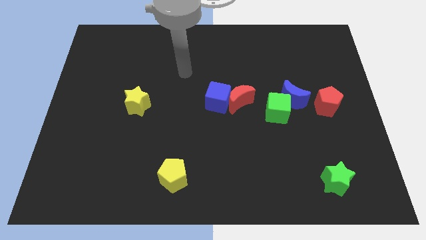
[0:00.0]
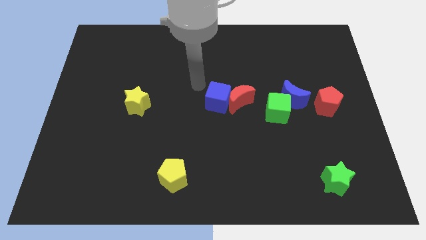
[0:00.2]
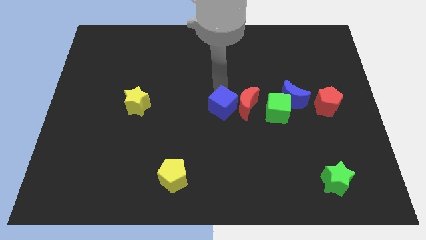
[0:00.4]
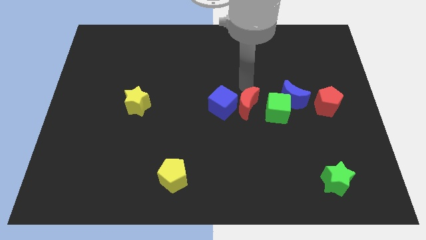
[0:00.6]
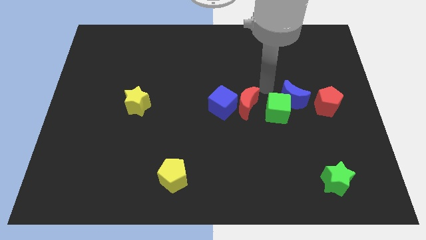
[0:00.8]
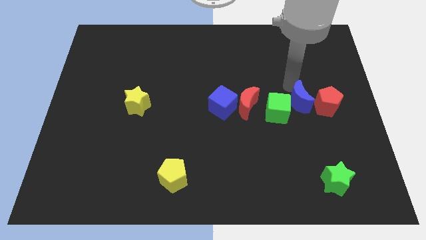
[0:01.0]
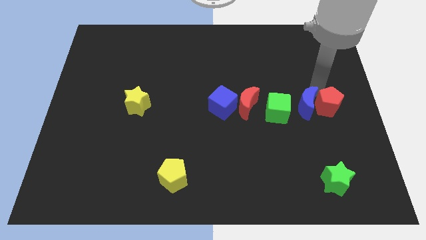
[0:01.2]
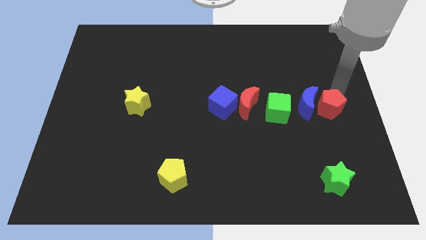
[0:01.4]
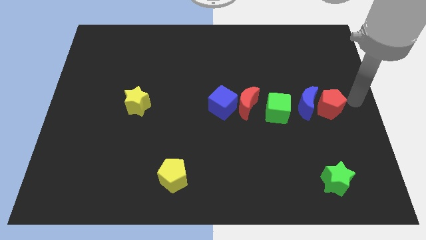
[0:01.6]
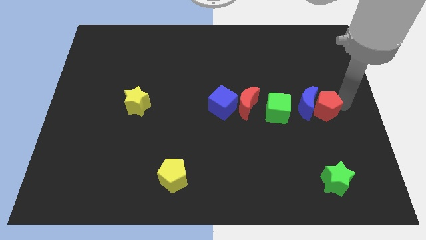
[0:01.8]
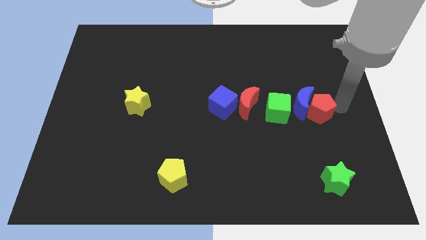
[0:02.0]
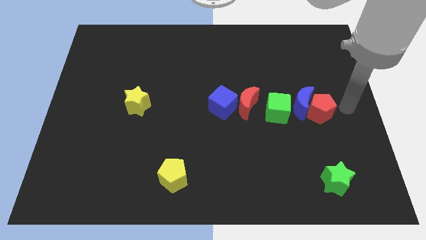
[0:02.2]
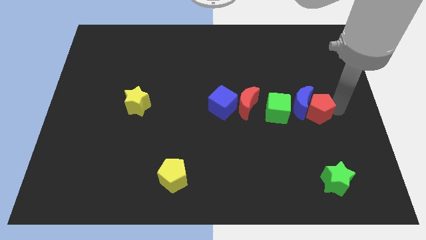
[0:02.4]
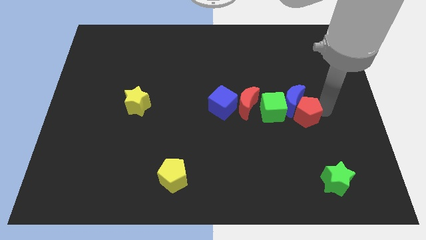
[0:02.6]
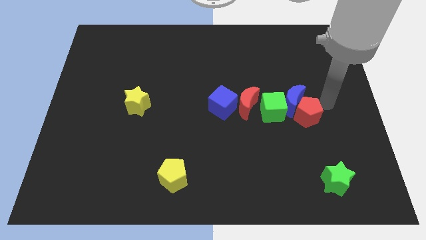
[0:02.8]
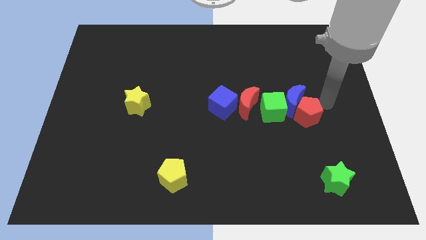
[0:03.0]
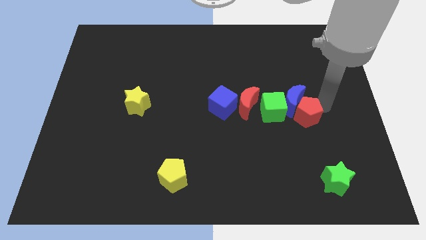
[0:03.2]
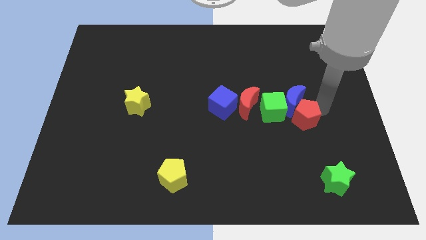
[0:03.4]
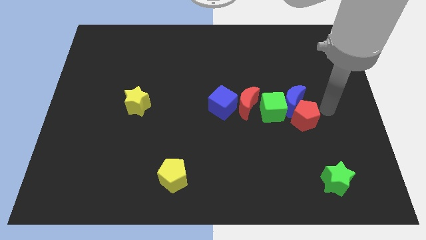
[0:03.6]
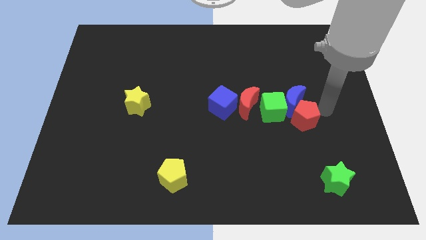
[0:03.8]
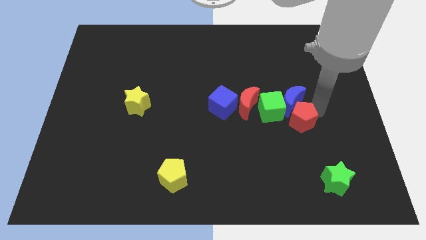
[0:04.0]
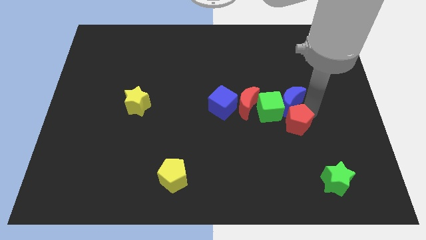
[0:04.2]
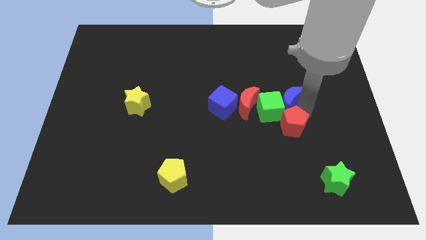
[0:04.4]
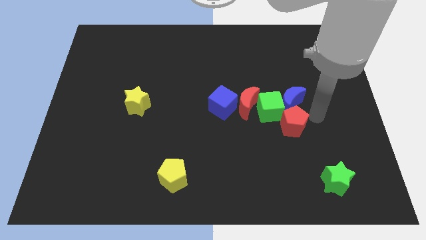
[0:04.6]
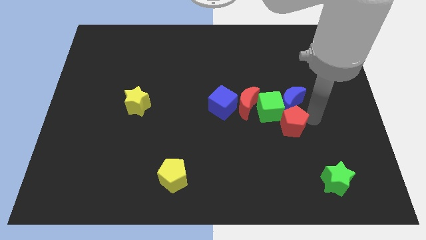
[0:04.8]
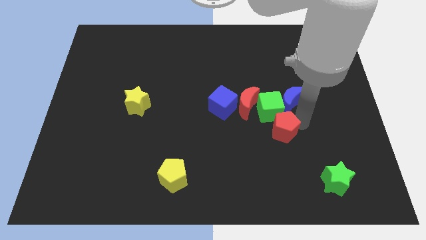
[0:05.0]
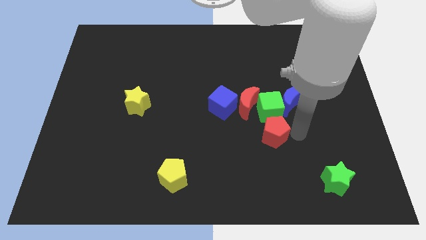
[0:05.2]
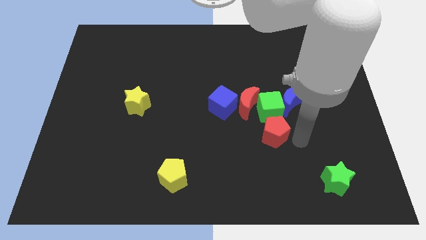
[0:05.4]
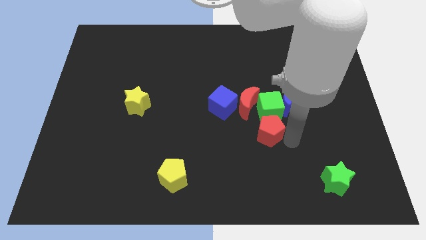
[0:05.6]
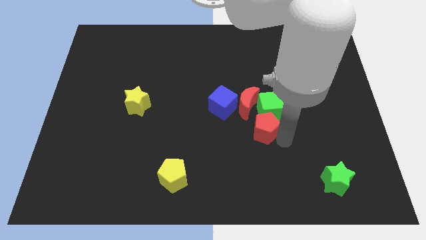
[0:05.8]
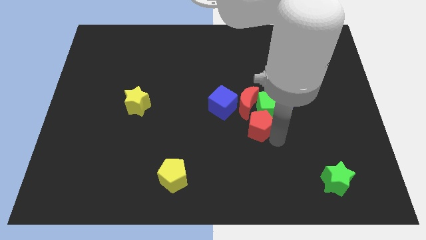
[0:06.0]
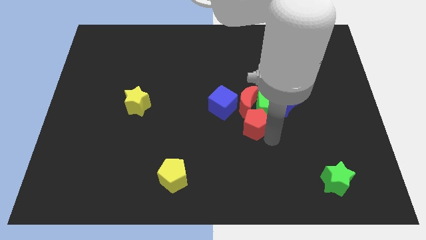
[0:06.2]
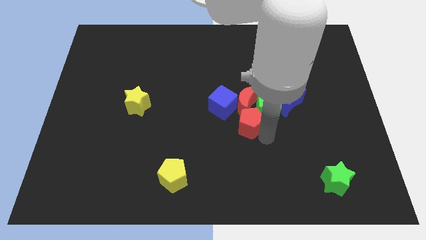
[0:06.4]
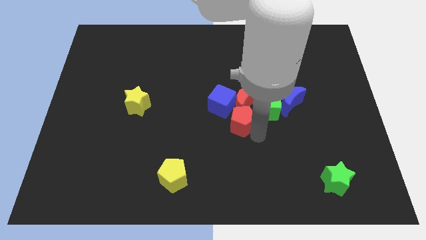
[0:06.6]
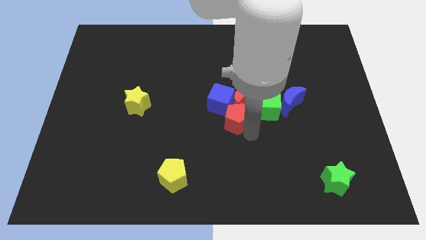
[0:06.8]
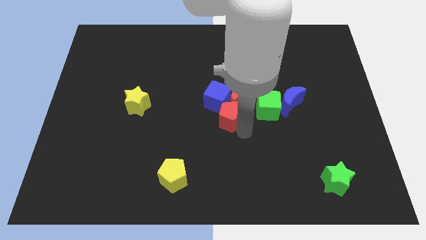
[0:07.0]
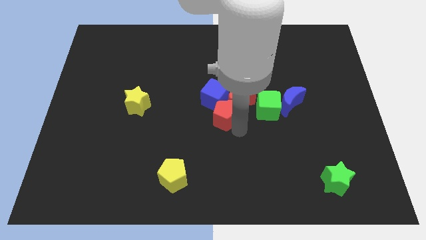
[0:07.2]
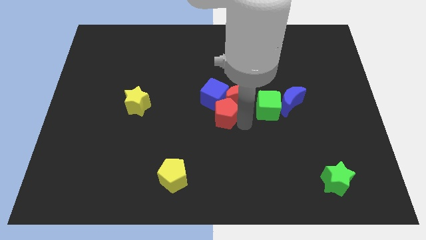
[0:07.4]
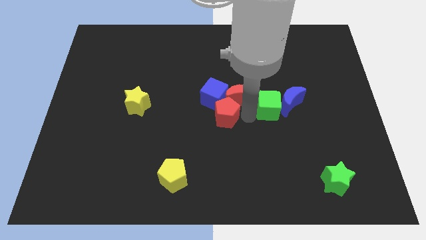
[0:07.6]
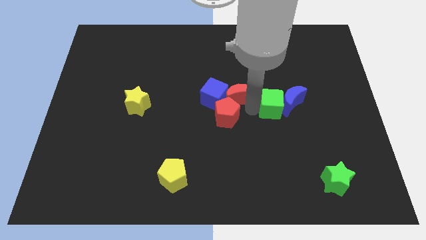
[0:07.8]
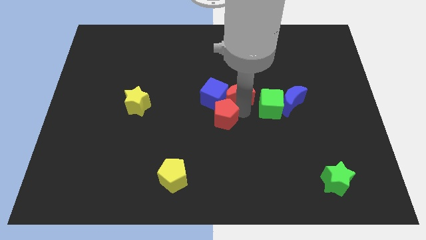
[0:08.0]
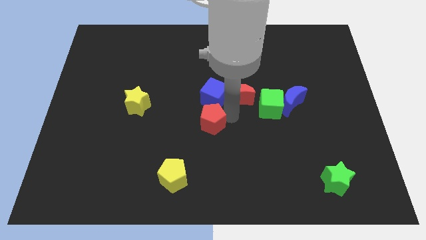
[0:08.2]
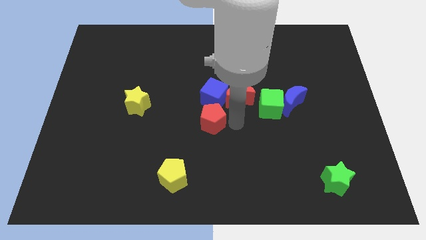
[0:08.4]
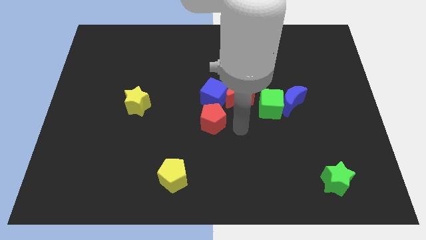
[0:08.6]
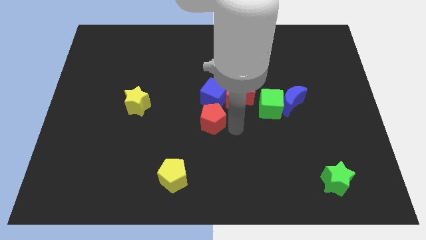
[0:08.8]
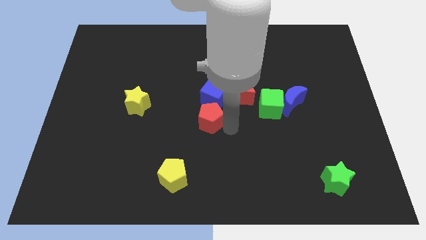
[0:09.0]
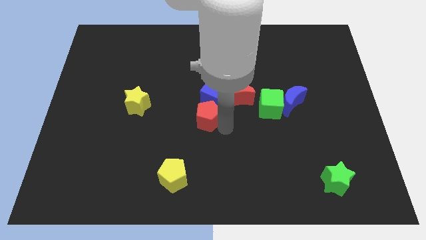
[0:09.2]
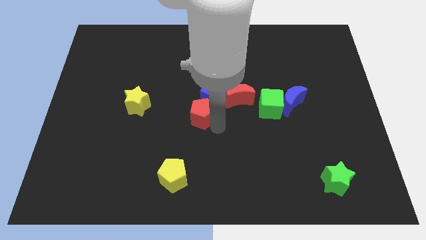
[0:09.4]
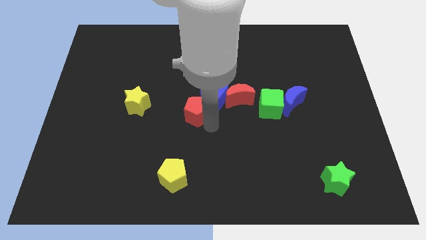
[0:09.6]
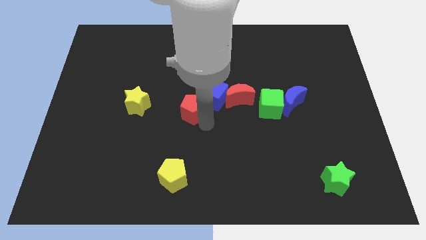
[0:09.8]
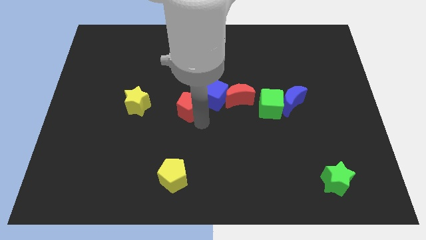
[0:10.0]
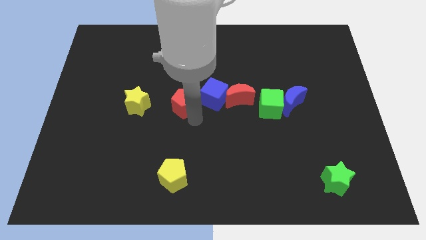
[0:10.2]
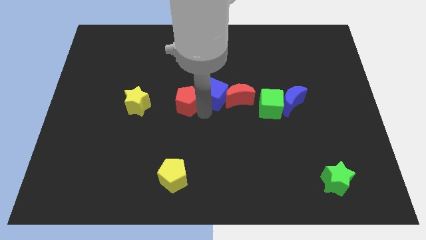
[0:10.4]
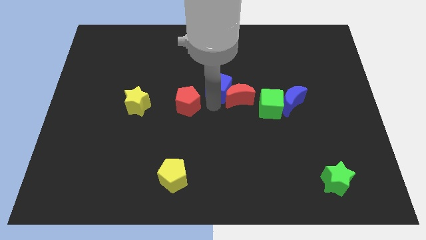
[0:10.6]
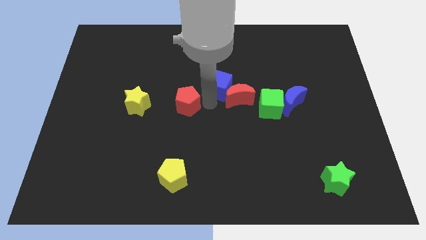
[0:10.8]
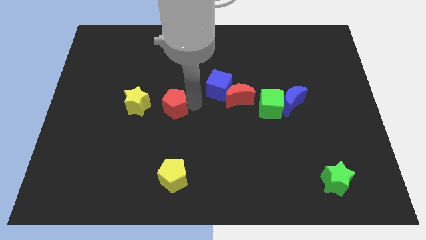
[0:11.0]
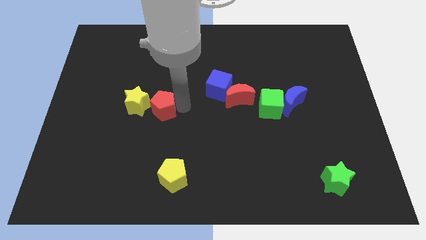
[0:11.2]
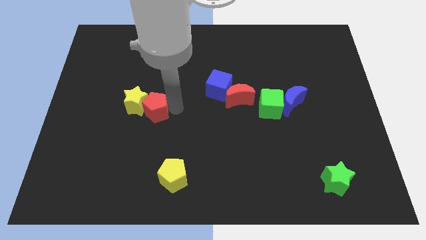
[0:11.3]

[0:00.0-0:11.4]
move the red pentagon next to the yellow star

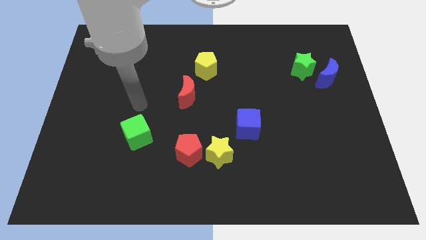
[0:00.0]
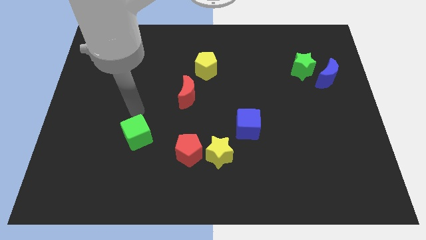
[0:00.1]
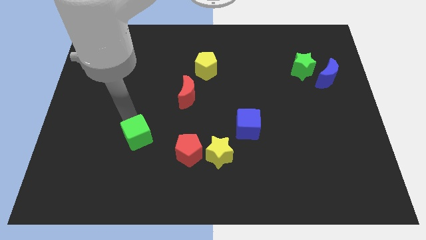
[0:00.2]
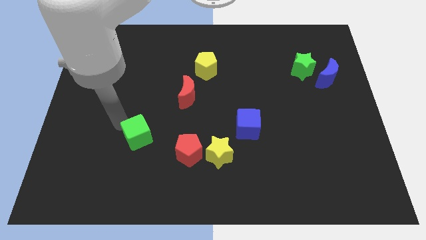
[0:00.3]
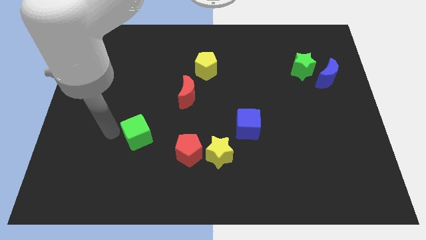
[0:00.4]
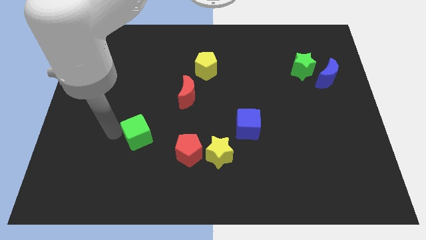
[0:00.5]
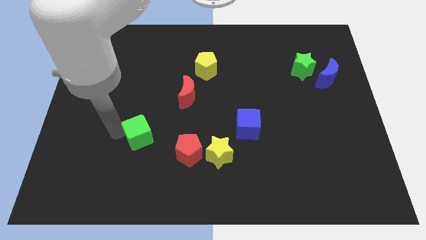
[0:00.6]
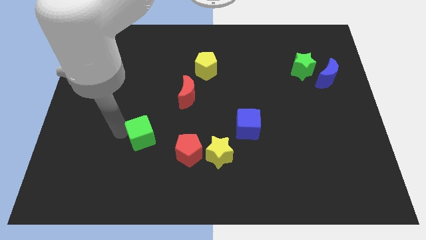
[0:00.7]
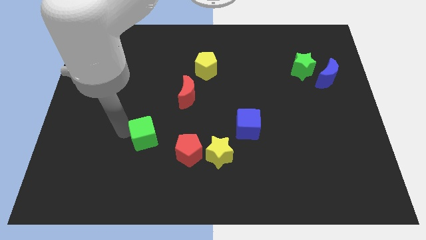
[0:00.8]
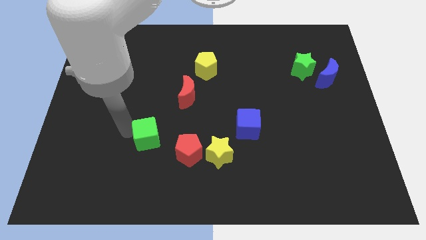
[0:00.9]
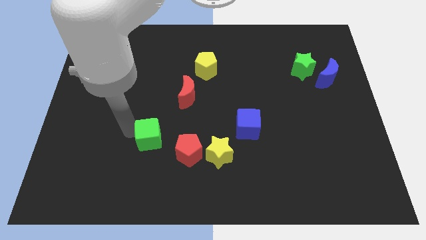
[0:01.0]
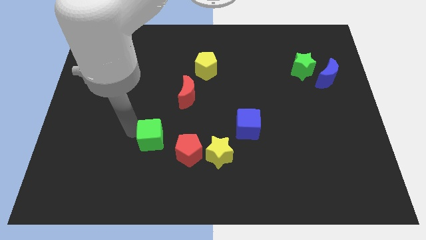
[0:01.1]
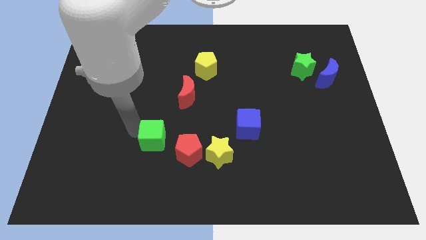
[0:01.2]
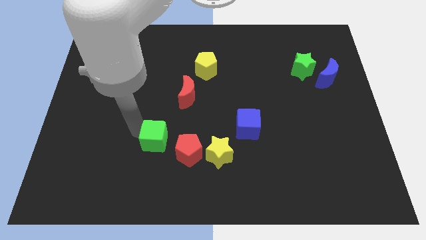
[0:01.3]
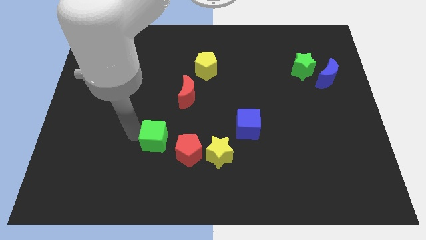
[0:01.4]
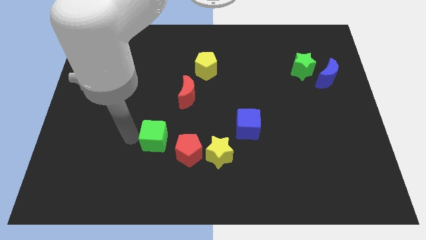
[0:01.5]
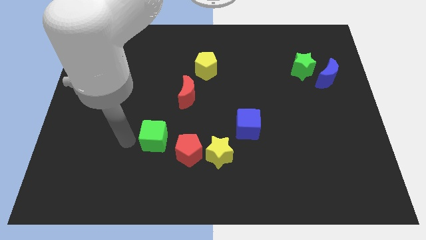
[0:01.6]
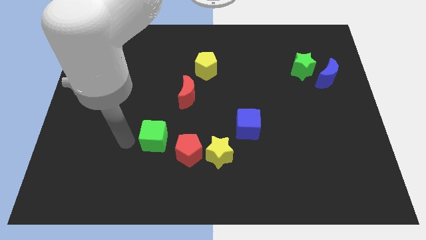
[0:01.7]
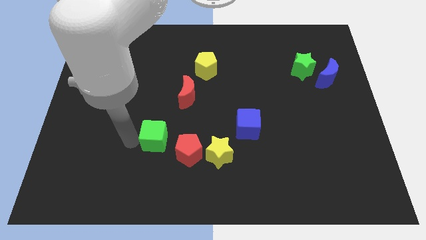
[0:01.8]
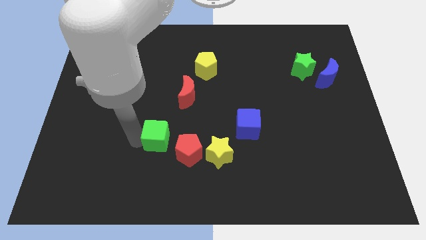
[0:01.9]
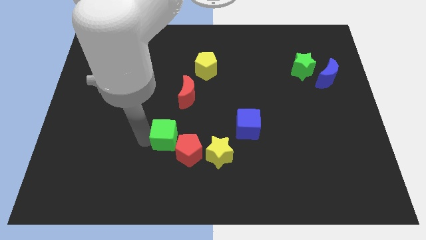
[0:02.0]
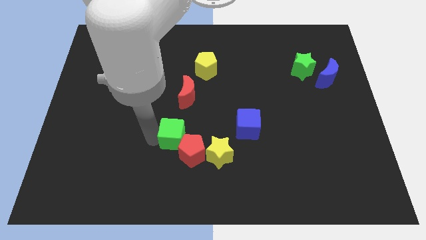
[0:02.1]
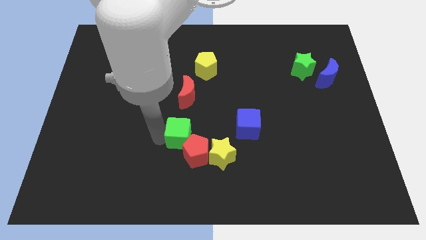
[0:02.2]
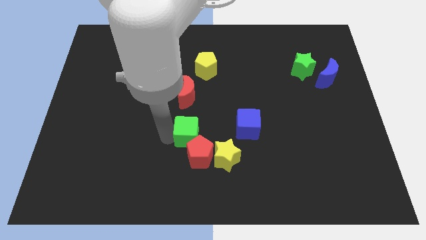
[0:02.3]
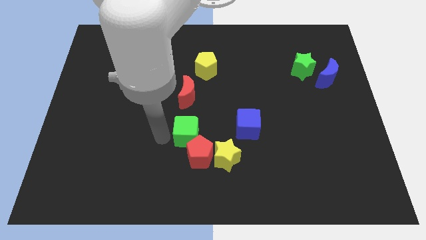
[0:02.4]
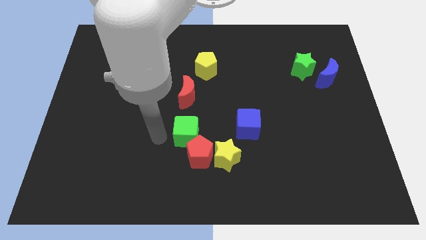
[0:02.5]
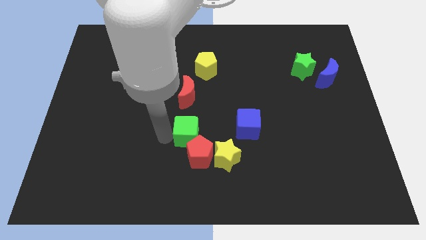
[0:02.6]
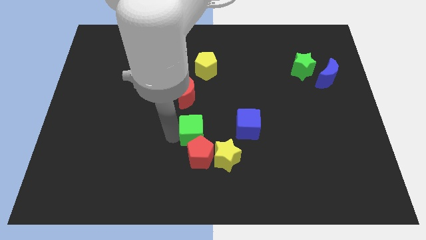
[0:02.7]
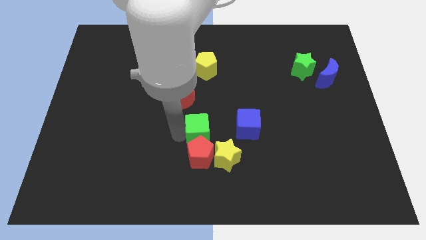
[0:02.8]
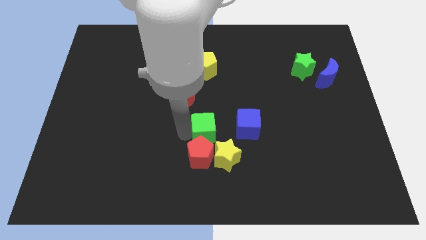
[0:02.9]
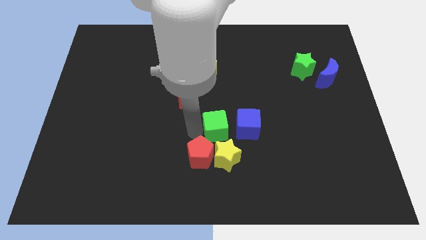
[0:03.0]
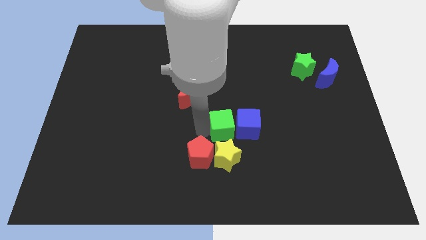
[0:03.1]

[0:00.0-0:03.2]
move the green cube close to the blue cube
